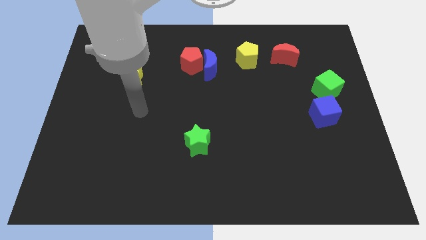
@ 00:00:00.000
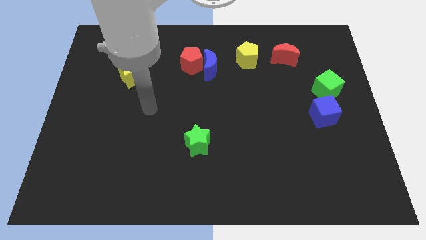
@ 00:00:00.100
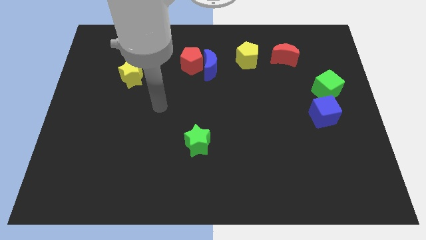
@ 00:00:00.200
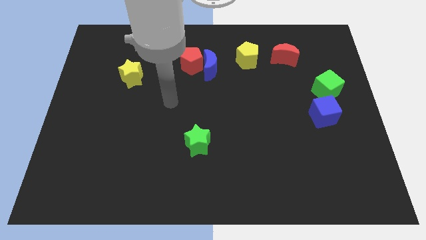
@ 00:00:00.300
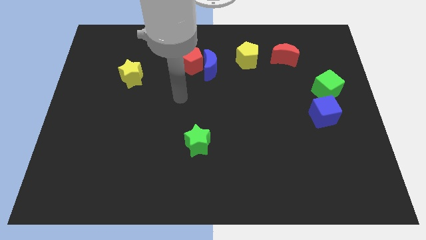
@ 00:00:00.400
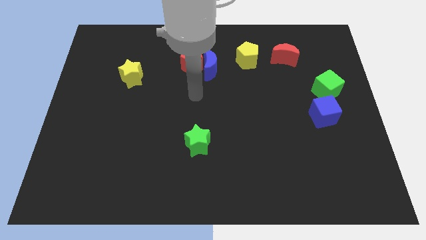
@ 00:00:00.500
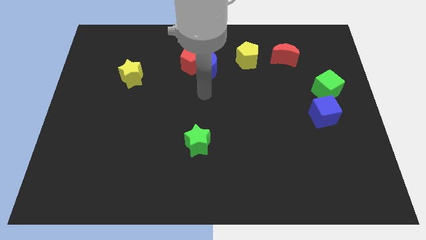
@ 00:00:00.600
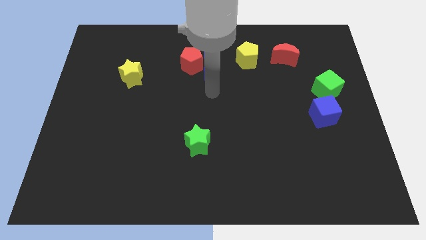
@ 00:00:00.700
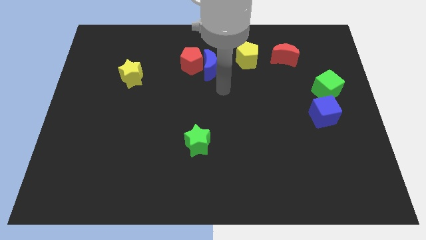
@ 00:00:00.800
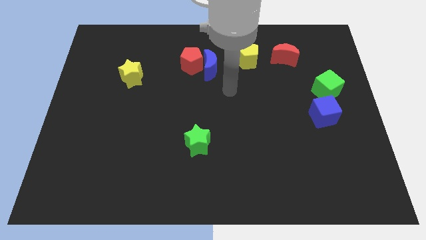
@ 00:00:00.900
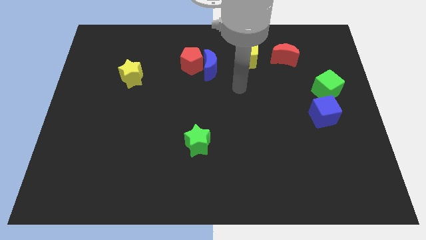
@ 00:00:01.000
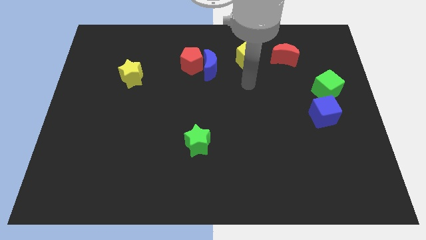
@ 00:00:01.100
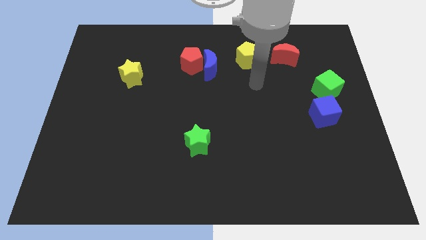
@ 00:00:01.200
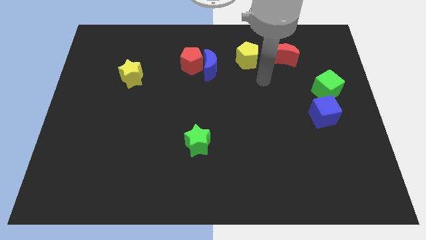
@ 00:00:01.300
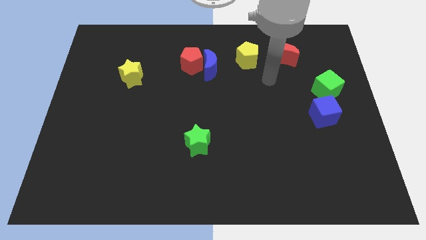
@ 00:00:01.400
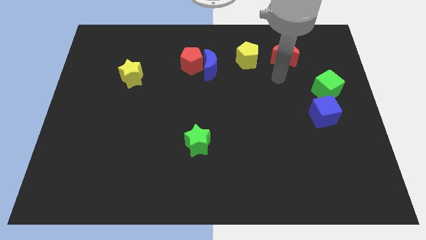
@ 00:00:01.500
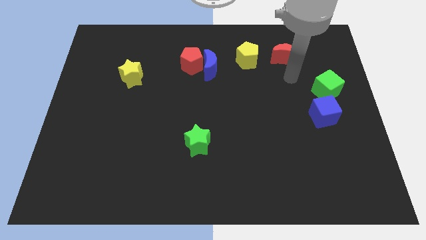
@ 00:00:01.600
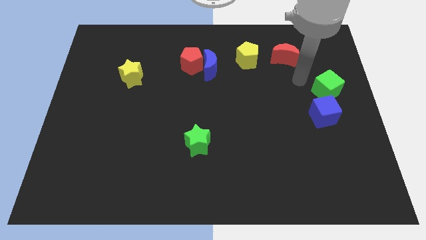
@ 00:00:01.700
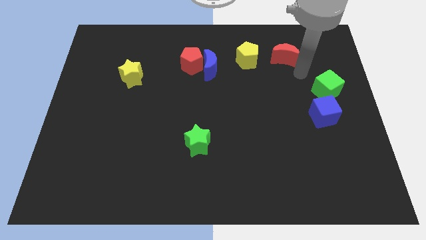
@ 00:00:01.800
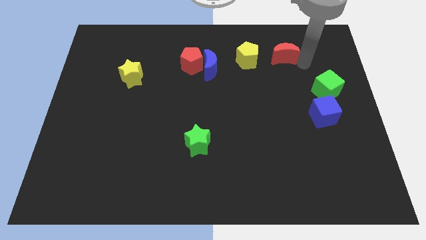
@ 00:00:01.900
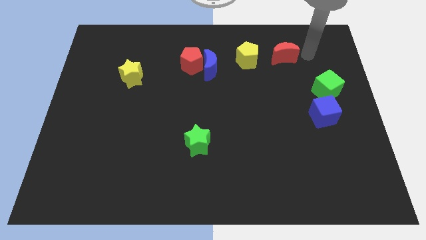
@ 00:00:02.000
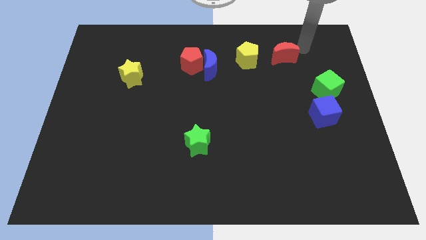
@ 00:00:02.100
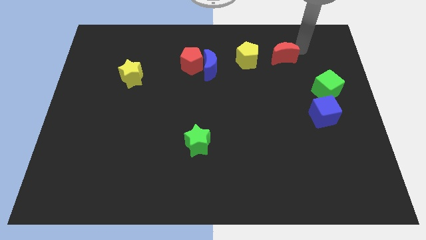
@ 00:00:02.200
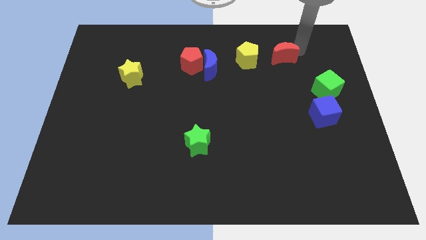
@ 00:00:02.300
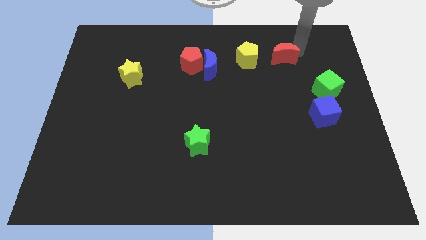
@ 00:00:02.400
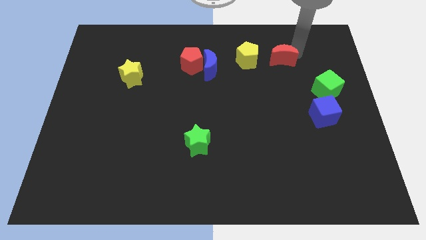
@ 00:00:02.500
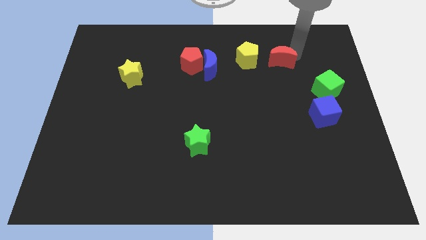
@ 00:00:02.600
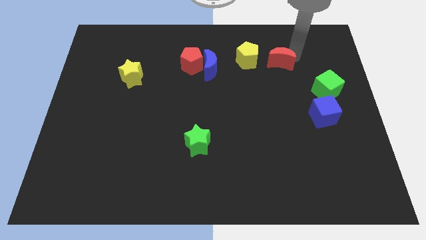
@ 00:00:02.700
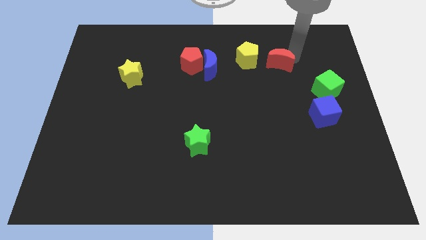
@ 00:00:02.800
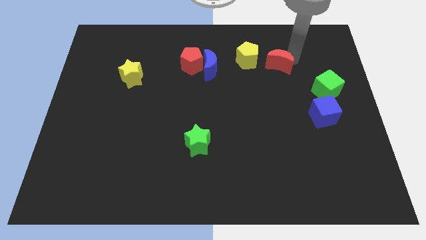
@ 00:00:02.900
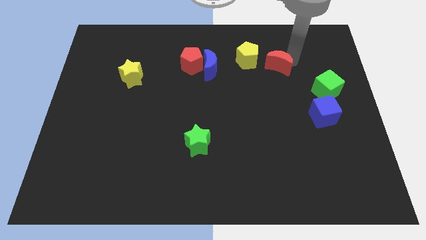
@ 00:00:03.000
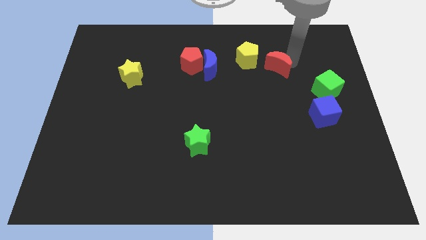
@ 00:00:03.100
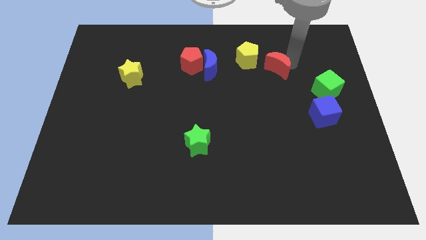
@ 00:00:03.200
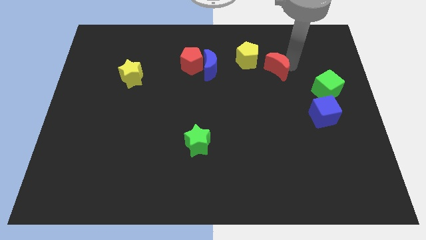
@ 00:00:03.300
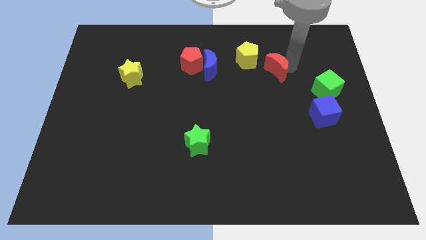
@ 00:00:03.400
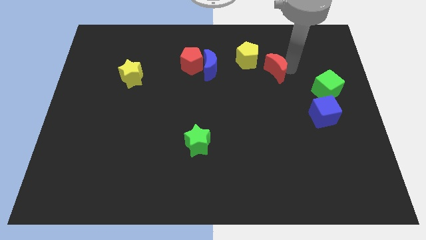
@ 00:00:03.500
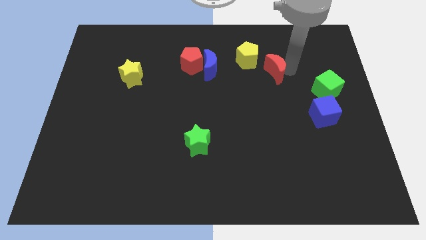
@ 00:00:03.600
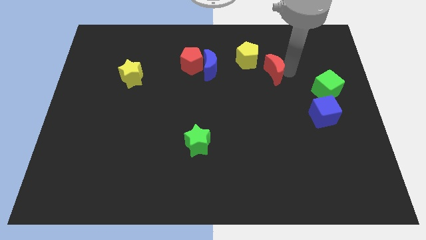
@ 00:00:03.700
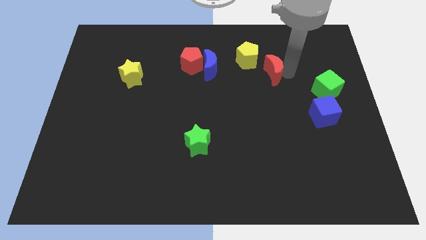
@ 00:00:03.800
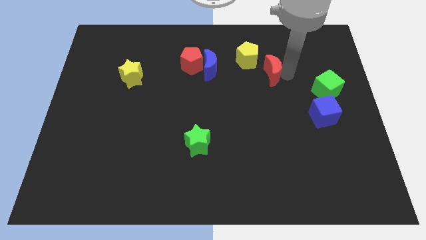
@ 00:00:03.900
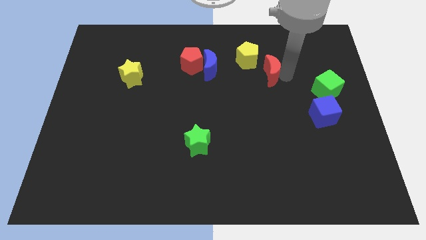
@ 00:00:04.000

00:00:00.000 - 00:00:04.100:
slightly move the red moon downwards and then to the left

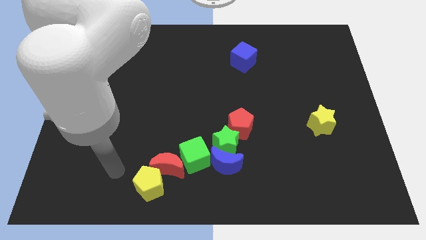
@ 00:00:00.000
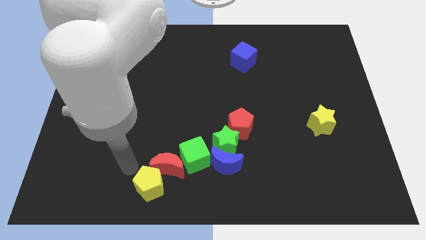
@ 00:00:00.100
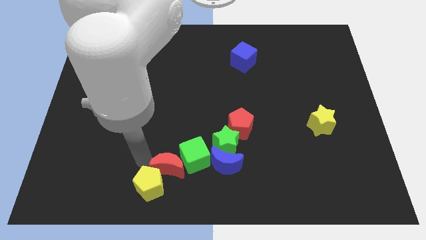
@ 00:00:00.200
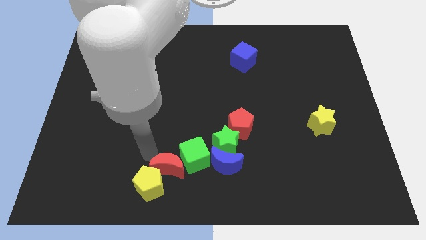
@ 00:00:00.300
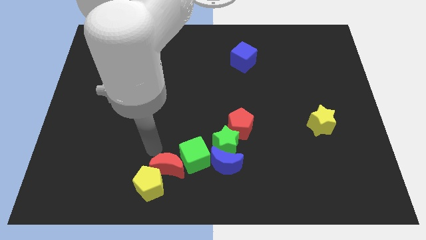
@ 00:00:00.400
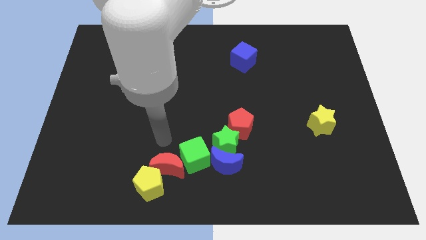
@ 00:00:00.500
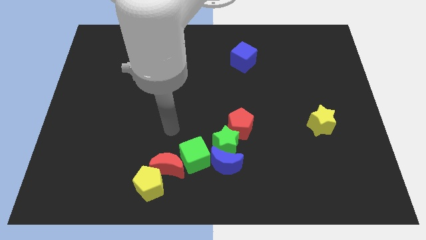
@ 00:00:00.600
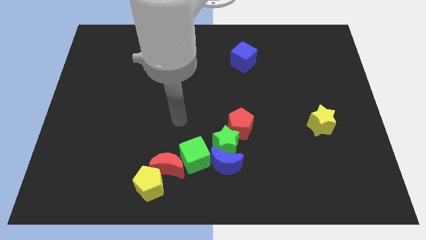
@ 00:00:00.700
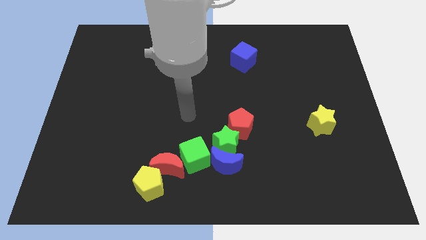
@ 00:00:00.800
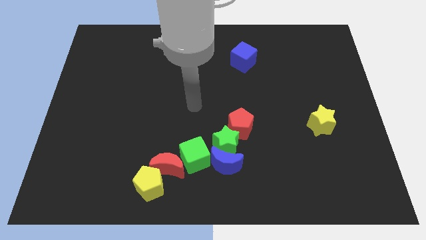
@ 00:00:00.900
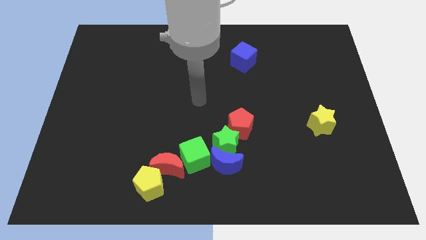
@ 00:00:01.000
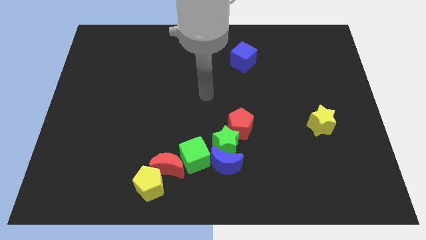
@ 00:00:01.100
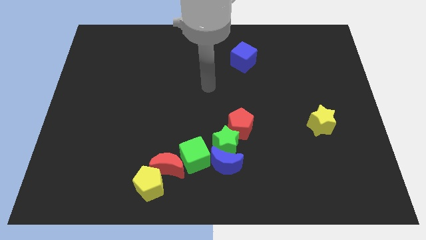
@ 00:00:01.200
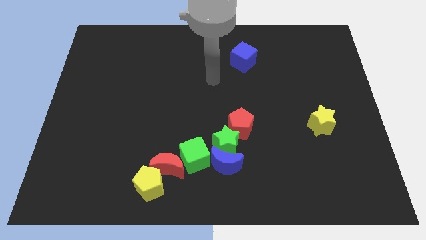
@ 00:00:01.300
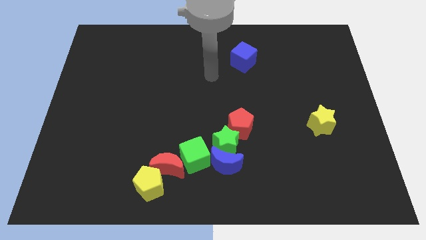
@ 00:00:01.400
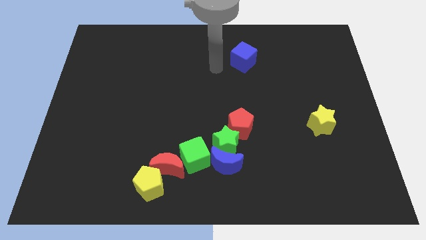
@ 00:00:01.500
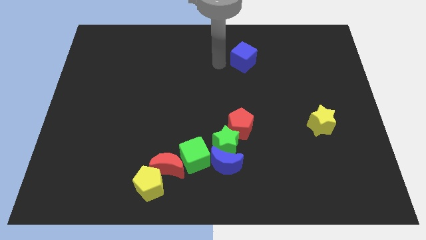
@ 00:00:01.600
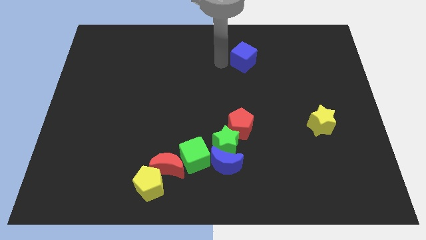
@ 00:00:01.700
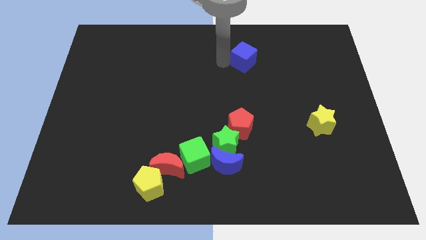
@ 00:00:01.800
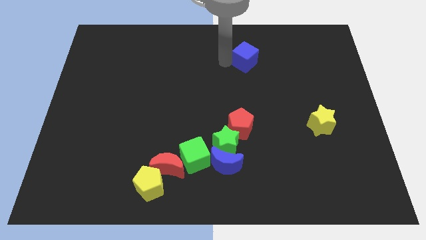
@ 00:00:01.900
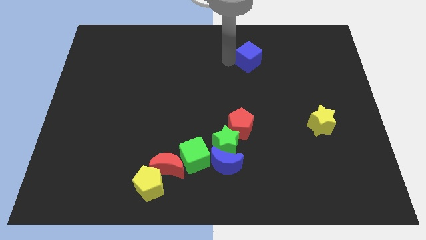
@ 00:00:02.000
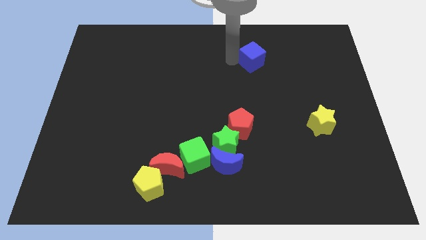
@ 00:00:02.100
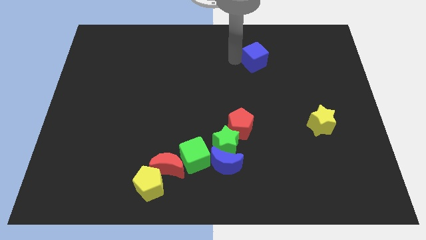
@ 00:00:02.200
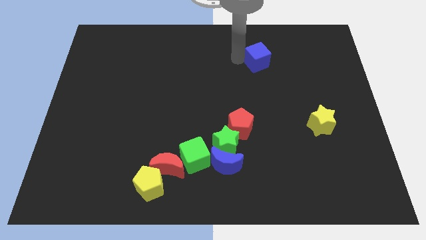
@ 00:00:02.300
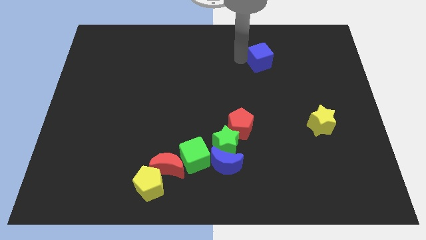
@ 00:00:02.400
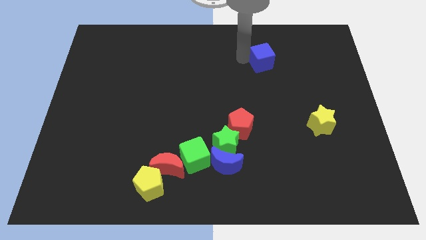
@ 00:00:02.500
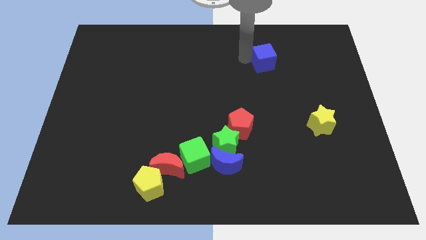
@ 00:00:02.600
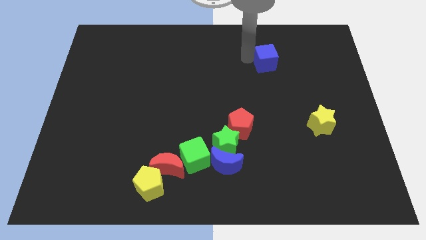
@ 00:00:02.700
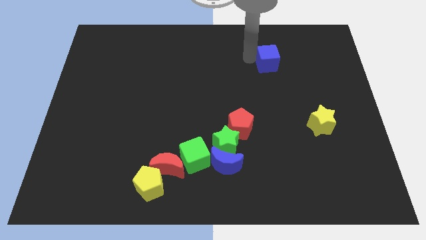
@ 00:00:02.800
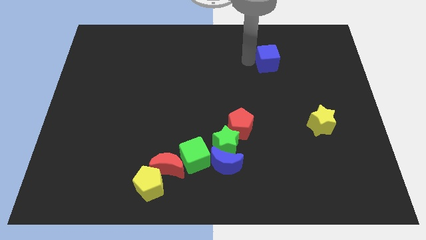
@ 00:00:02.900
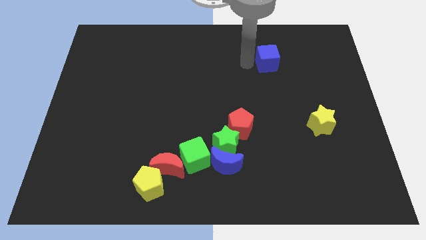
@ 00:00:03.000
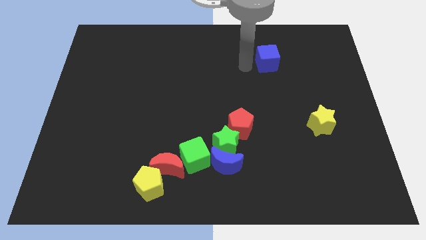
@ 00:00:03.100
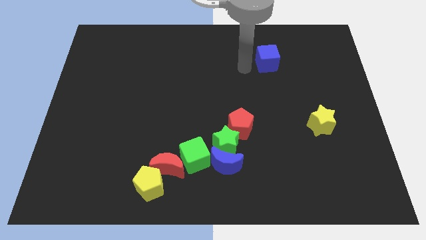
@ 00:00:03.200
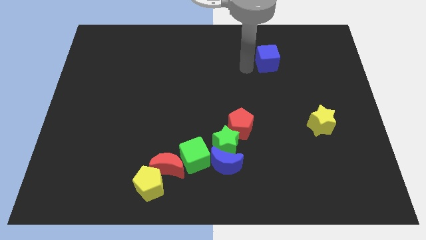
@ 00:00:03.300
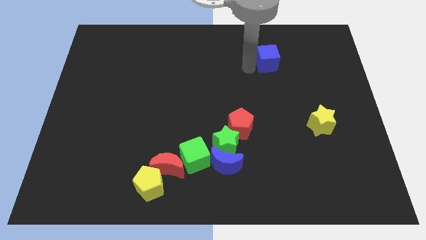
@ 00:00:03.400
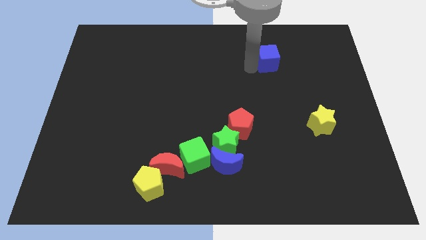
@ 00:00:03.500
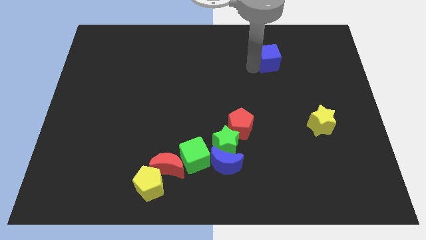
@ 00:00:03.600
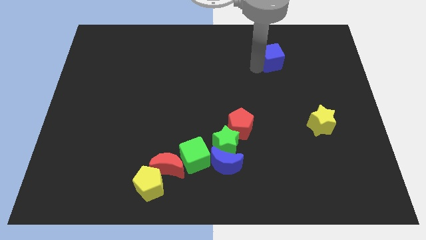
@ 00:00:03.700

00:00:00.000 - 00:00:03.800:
slide the blue cube to the right somewhat

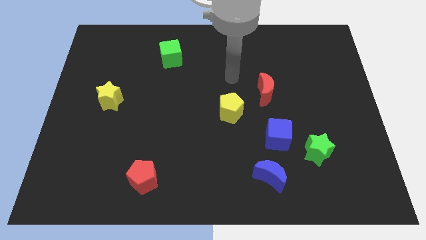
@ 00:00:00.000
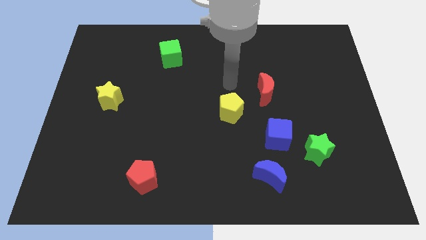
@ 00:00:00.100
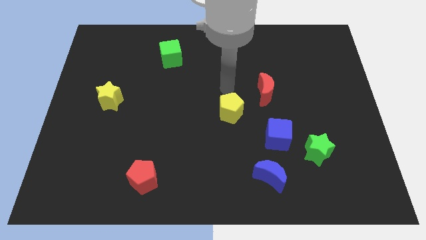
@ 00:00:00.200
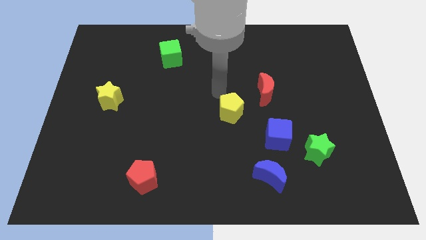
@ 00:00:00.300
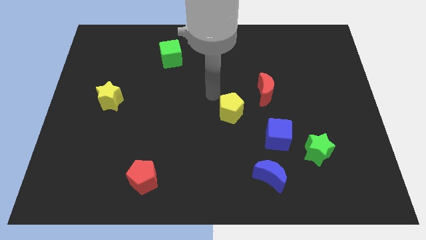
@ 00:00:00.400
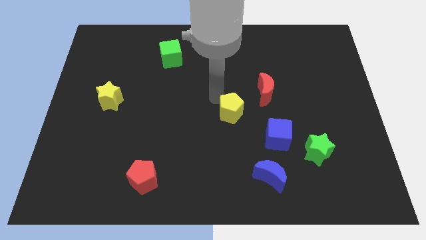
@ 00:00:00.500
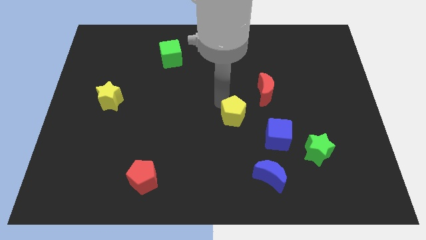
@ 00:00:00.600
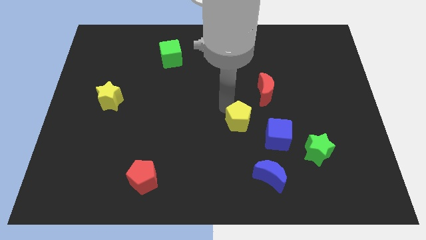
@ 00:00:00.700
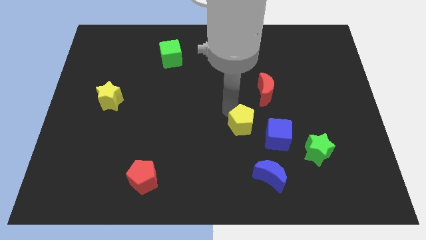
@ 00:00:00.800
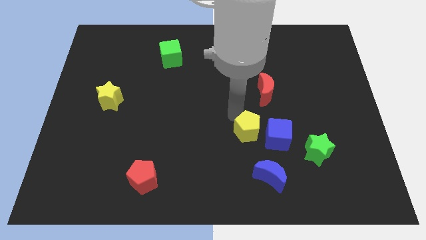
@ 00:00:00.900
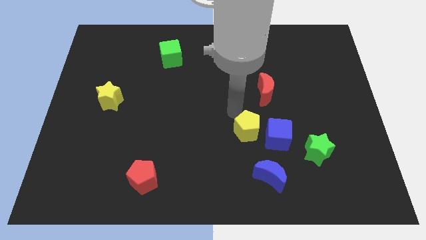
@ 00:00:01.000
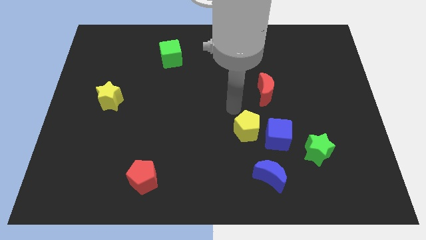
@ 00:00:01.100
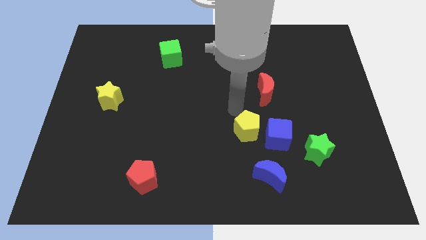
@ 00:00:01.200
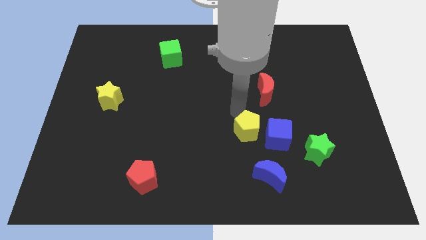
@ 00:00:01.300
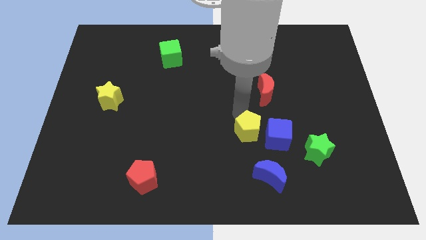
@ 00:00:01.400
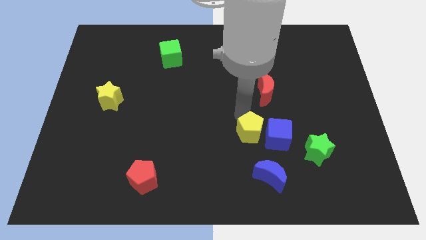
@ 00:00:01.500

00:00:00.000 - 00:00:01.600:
move the yellow pentagon a bit diagonally downwards and to the right
